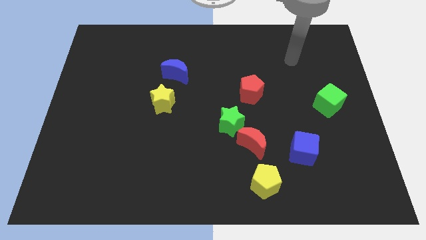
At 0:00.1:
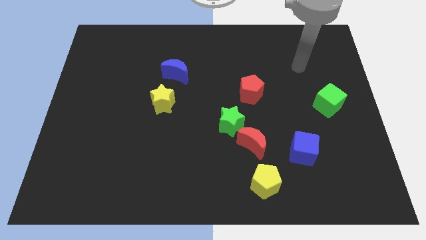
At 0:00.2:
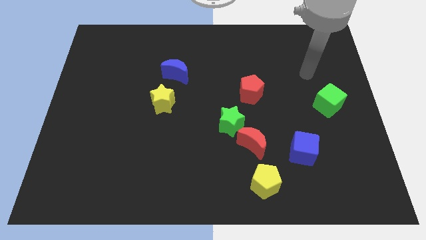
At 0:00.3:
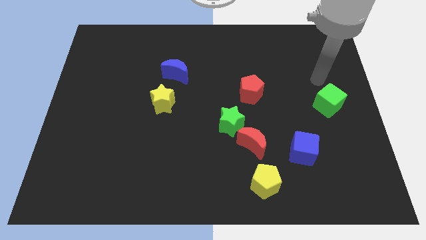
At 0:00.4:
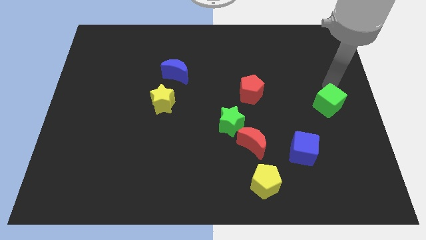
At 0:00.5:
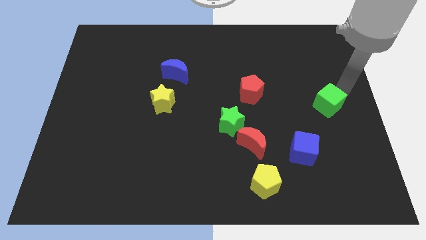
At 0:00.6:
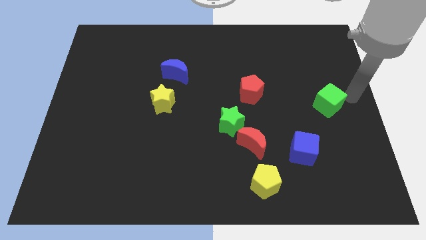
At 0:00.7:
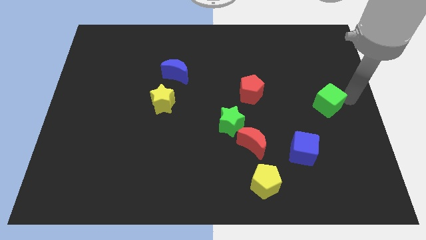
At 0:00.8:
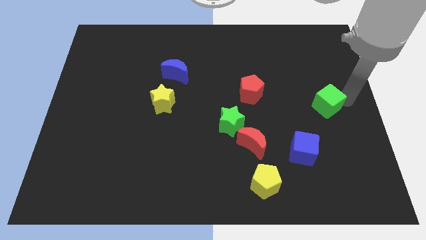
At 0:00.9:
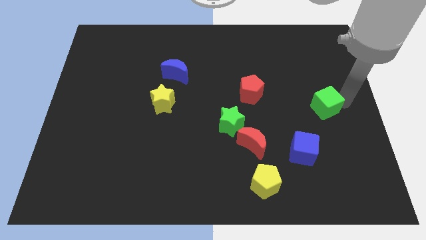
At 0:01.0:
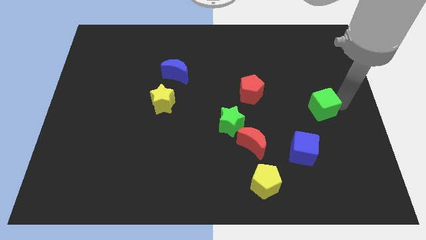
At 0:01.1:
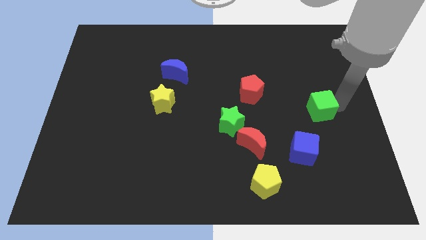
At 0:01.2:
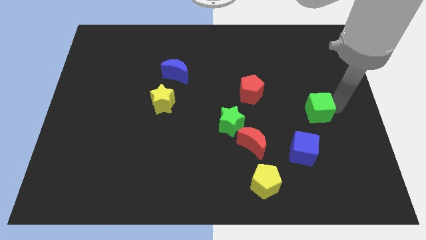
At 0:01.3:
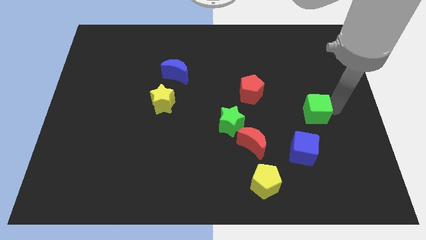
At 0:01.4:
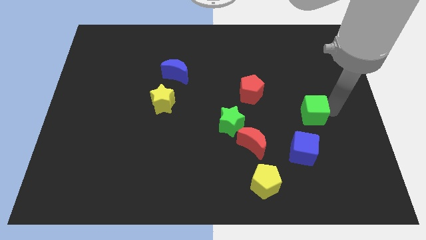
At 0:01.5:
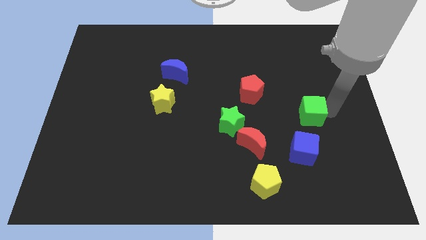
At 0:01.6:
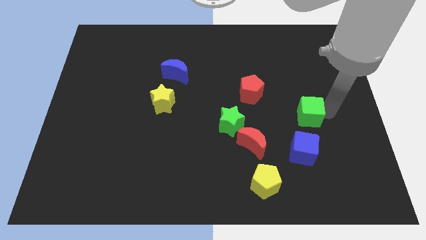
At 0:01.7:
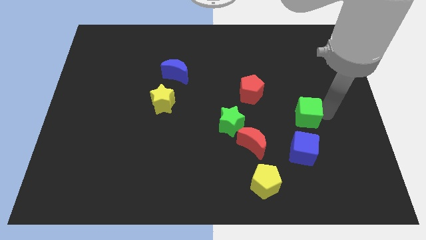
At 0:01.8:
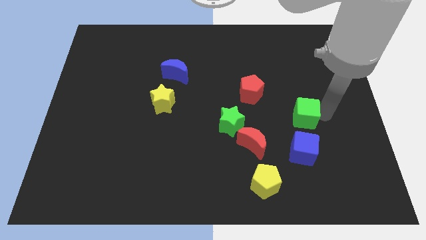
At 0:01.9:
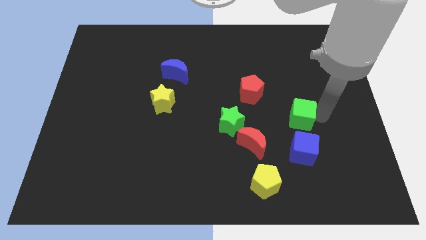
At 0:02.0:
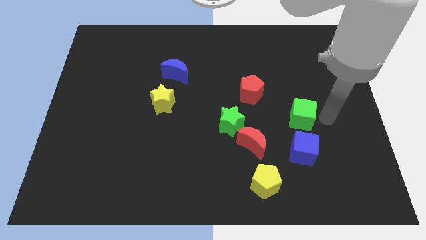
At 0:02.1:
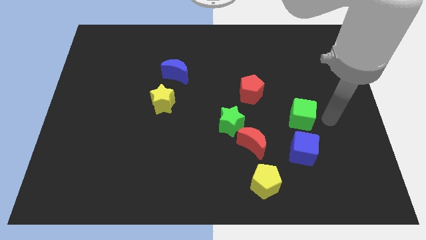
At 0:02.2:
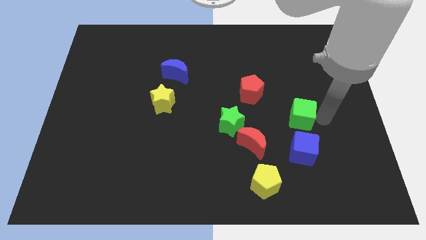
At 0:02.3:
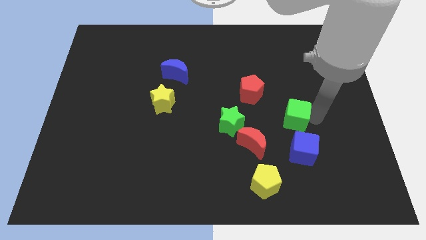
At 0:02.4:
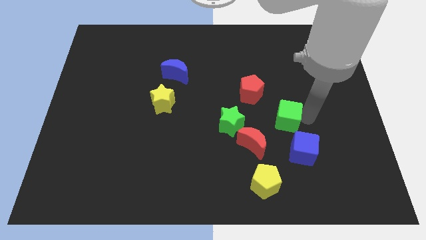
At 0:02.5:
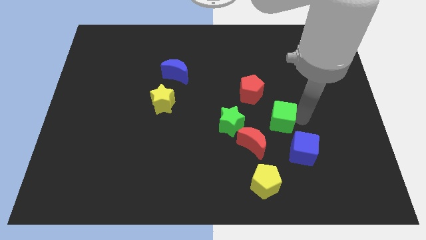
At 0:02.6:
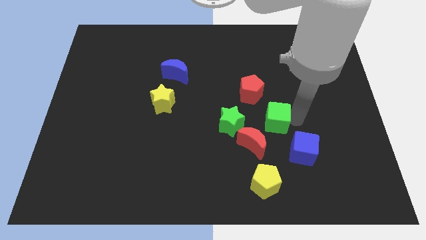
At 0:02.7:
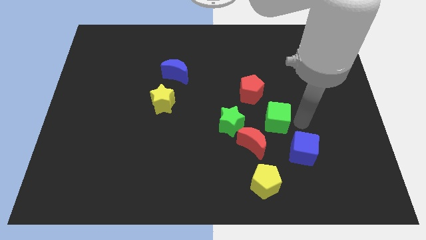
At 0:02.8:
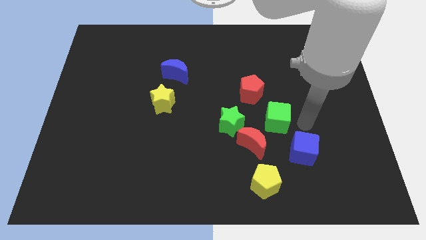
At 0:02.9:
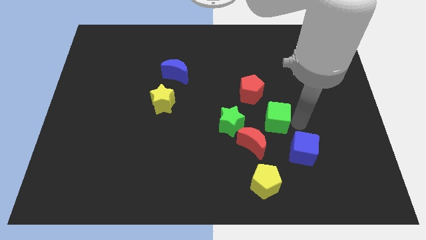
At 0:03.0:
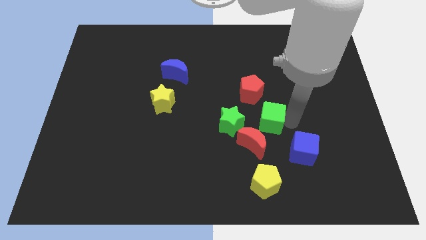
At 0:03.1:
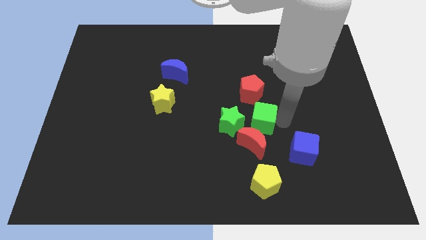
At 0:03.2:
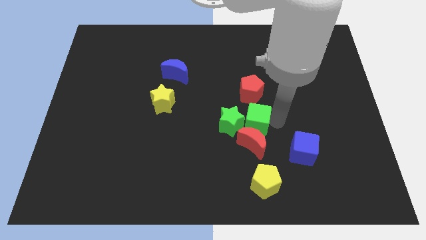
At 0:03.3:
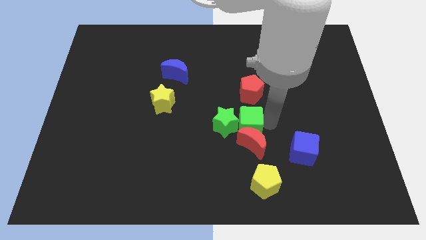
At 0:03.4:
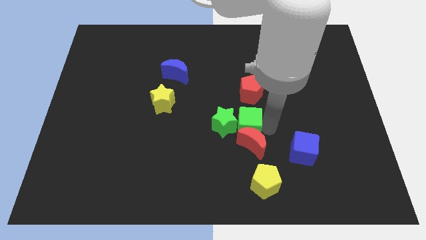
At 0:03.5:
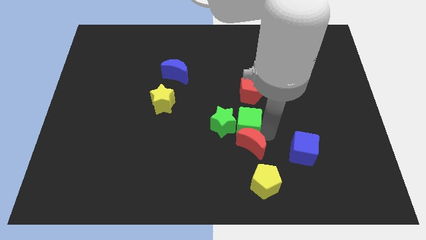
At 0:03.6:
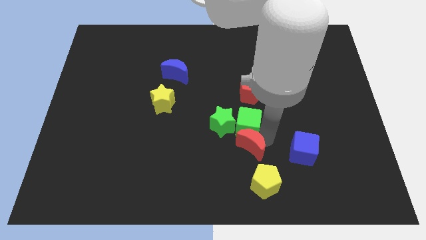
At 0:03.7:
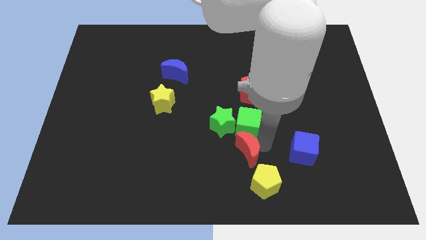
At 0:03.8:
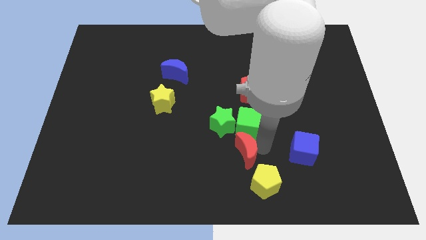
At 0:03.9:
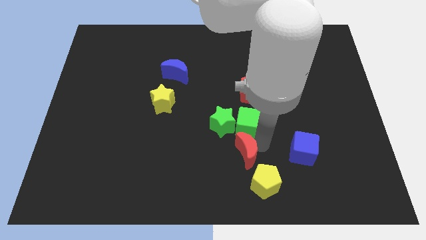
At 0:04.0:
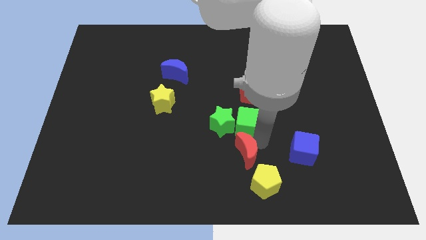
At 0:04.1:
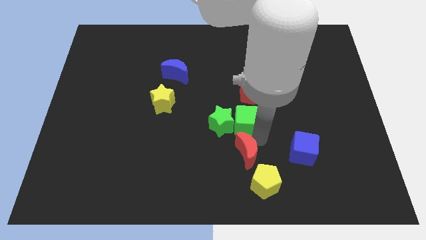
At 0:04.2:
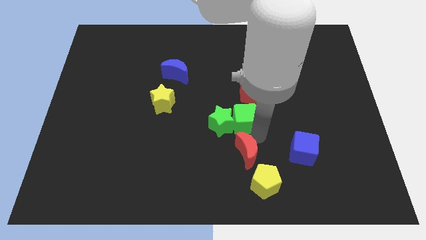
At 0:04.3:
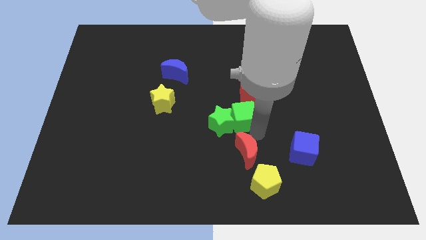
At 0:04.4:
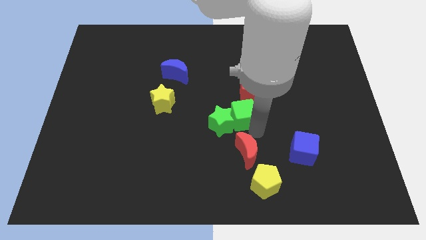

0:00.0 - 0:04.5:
move the green cube left

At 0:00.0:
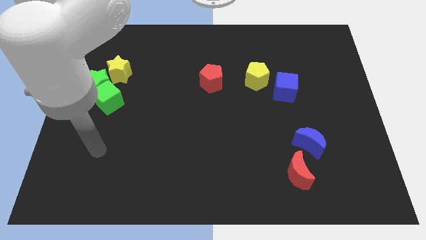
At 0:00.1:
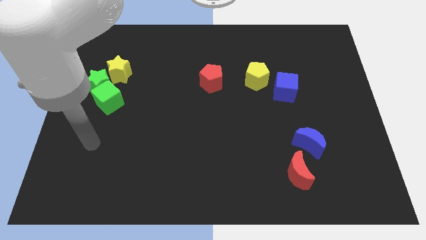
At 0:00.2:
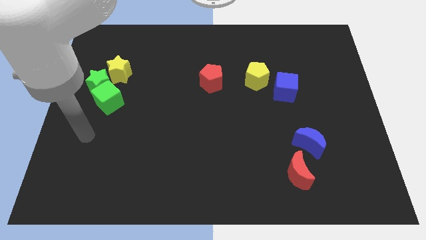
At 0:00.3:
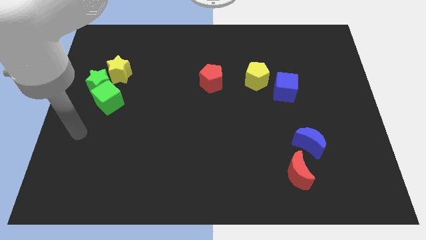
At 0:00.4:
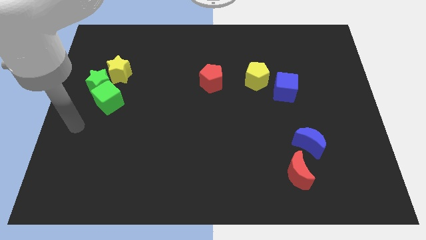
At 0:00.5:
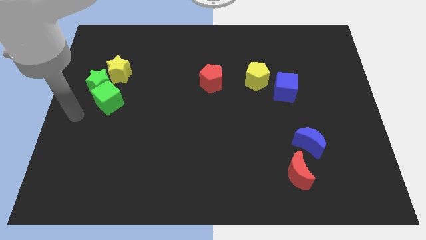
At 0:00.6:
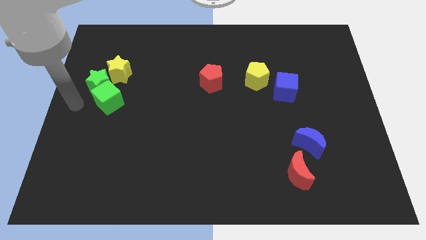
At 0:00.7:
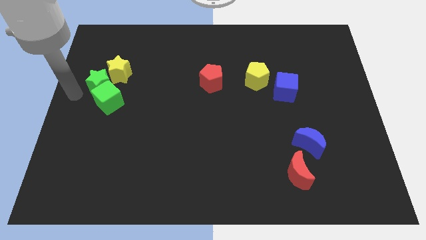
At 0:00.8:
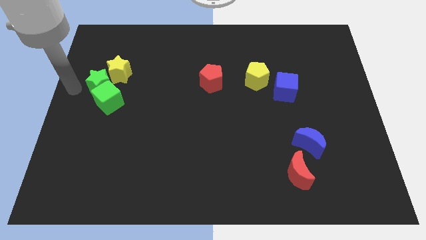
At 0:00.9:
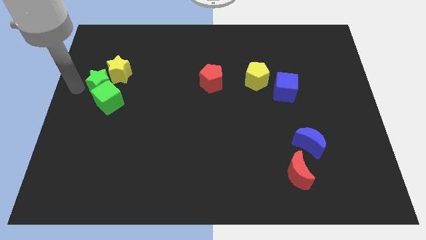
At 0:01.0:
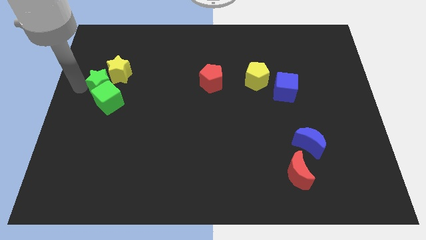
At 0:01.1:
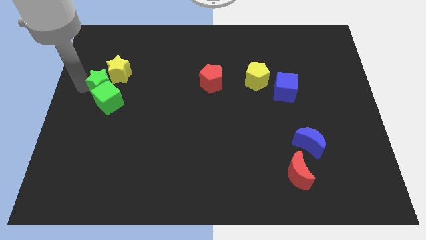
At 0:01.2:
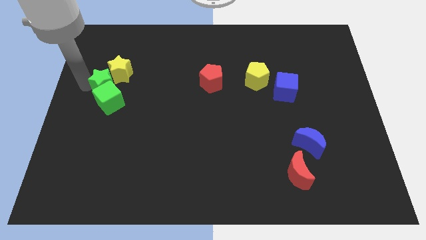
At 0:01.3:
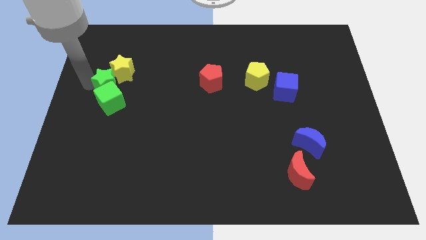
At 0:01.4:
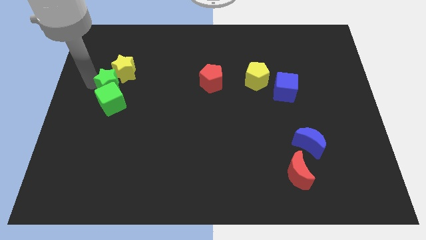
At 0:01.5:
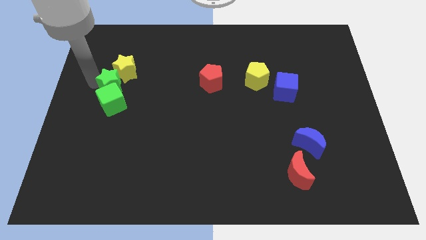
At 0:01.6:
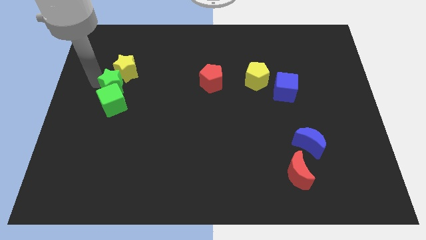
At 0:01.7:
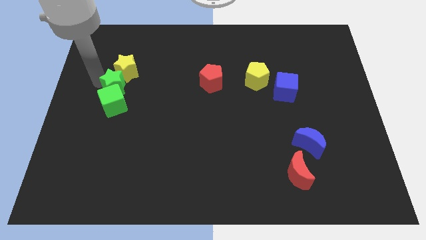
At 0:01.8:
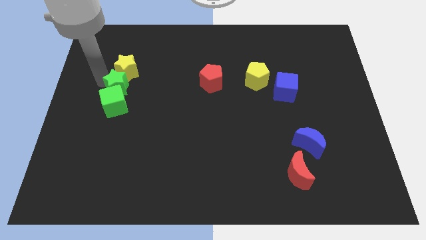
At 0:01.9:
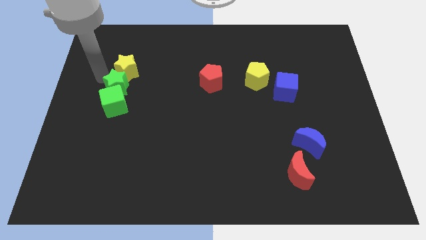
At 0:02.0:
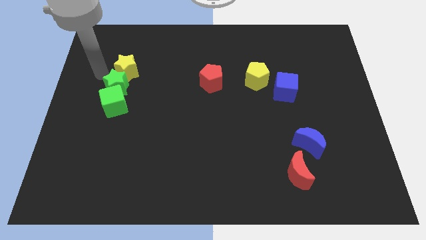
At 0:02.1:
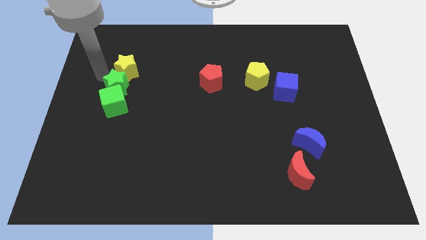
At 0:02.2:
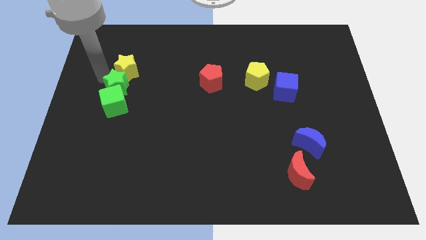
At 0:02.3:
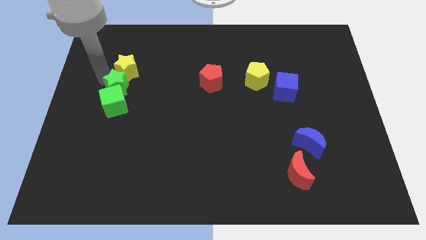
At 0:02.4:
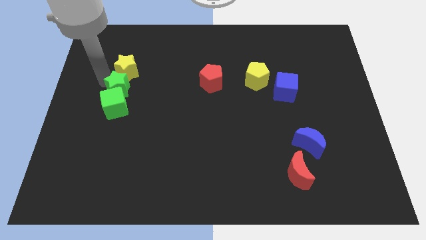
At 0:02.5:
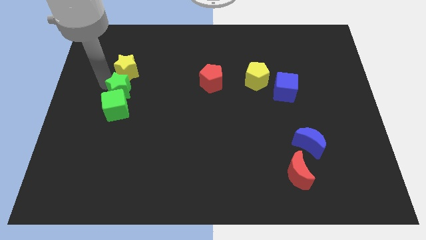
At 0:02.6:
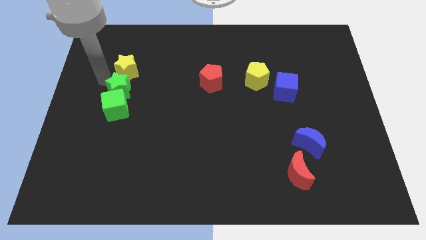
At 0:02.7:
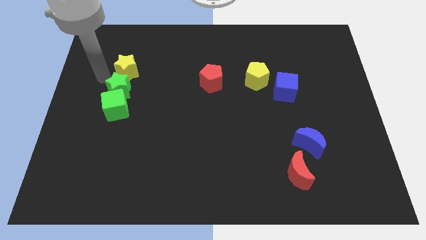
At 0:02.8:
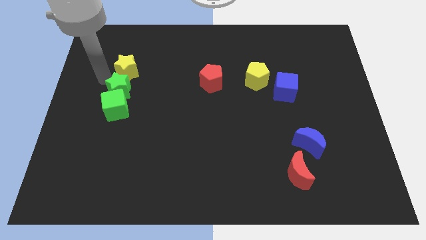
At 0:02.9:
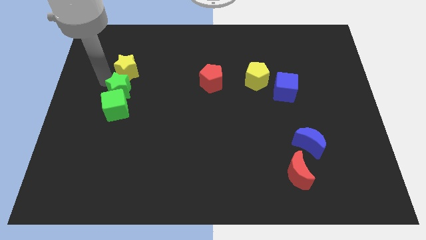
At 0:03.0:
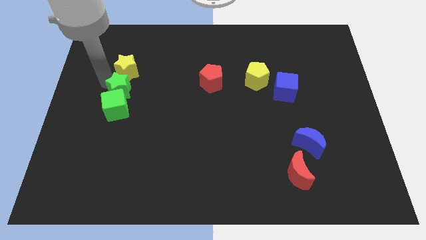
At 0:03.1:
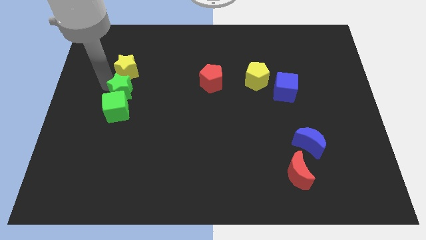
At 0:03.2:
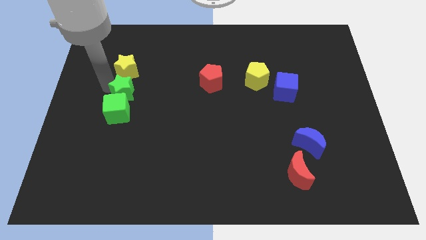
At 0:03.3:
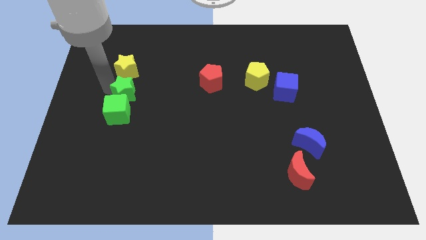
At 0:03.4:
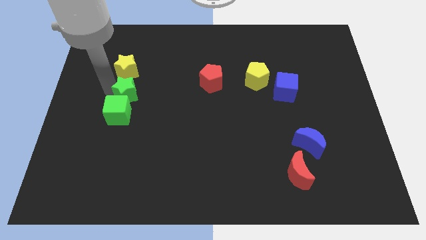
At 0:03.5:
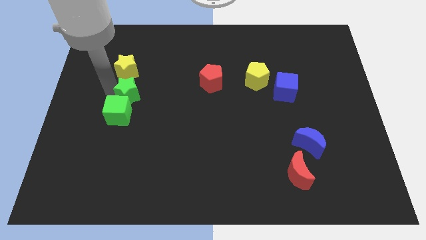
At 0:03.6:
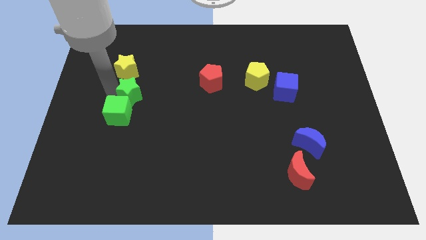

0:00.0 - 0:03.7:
slightly slide the green star downwards and then right
